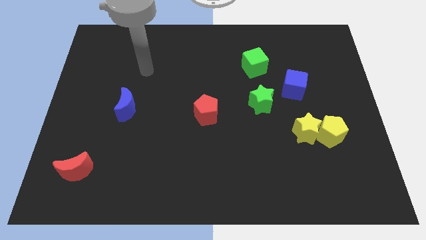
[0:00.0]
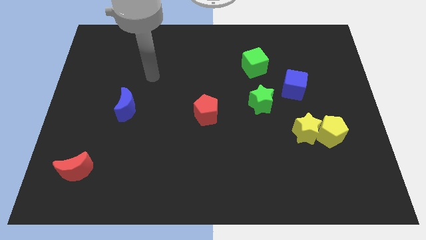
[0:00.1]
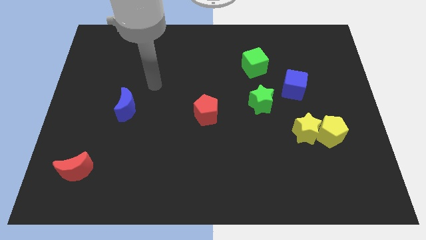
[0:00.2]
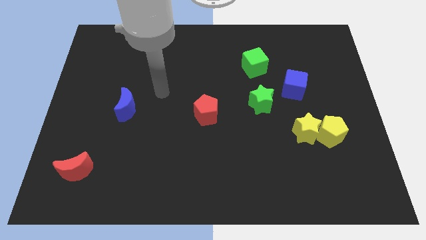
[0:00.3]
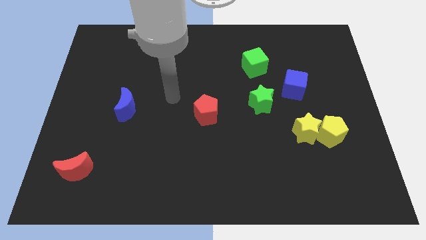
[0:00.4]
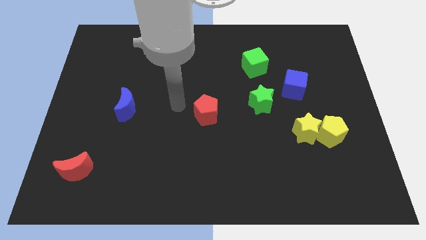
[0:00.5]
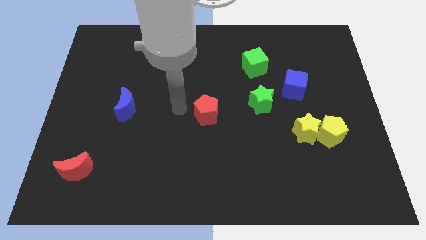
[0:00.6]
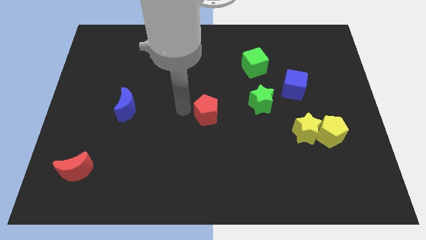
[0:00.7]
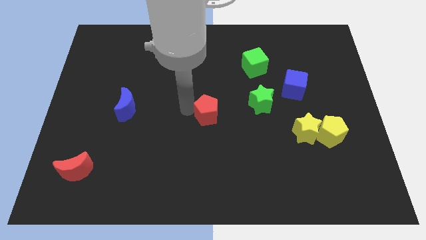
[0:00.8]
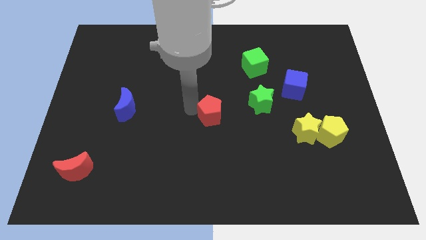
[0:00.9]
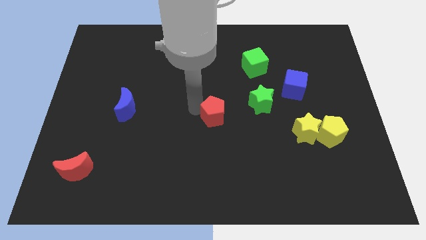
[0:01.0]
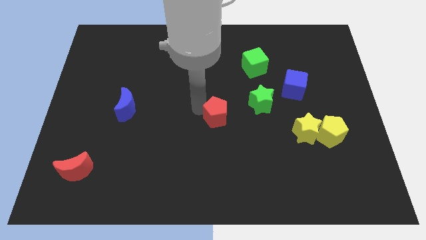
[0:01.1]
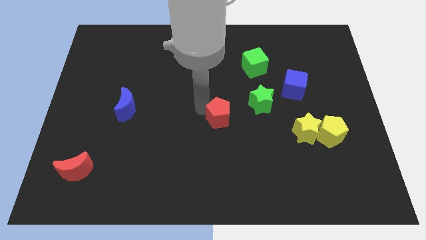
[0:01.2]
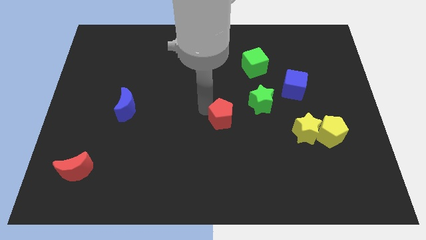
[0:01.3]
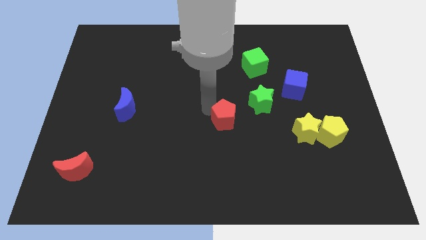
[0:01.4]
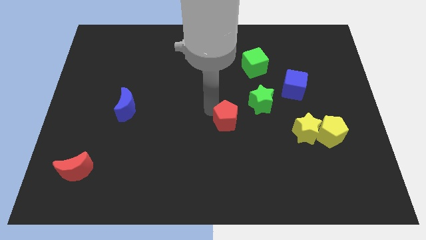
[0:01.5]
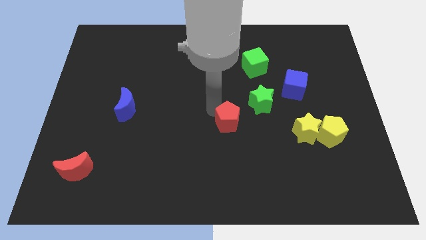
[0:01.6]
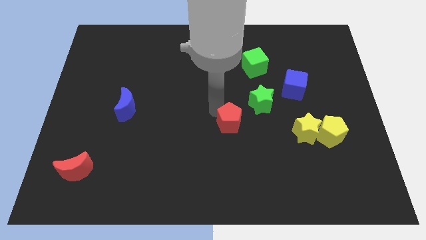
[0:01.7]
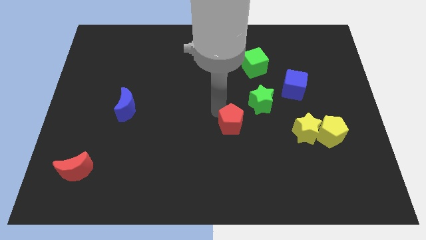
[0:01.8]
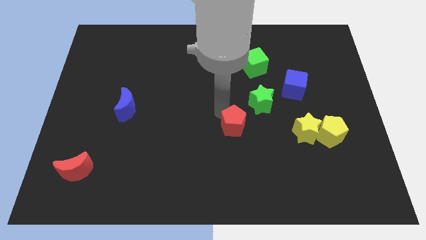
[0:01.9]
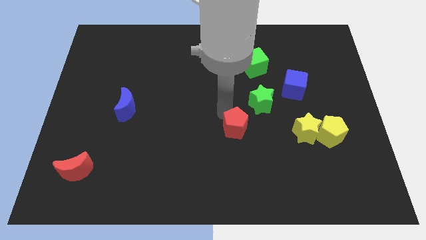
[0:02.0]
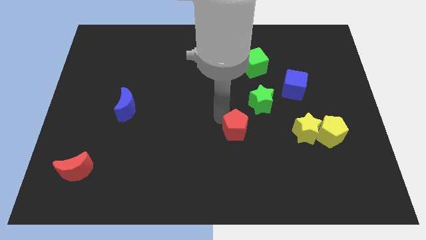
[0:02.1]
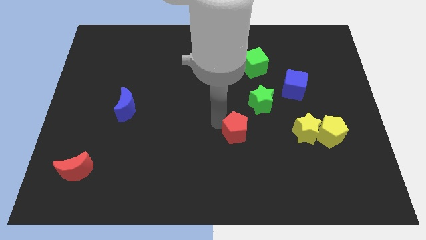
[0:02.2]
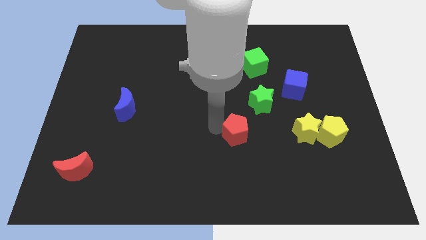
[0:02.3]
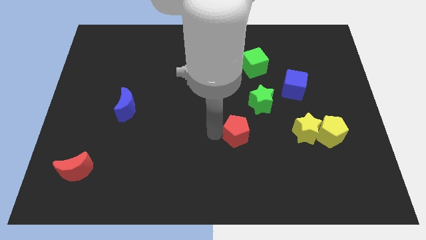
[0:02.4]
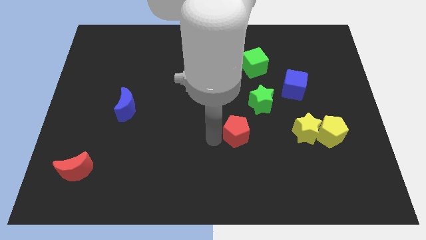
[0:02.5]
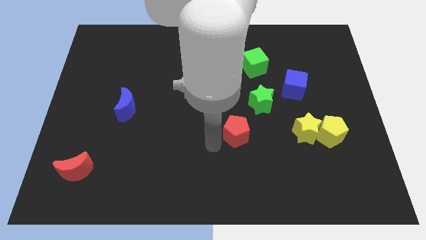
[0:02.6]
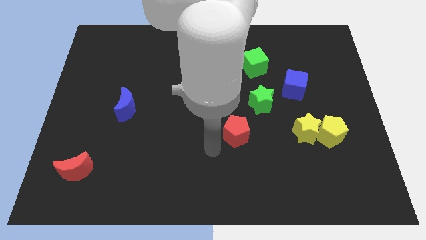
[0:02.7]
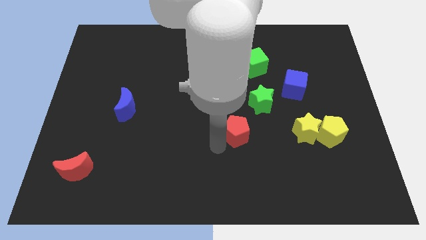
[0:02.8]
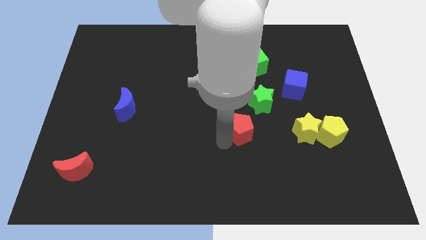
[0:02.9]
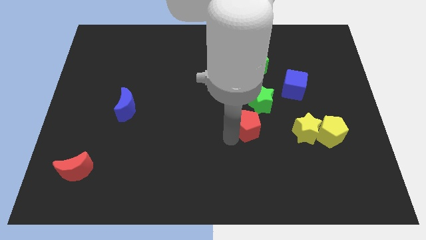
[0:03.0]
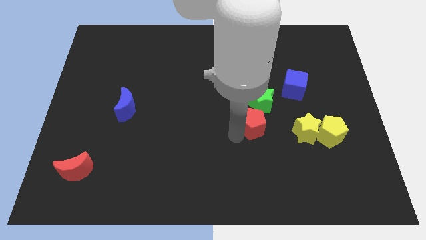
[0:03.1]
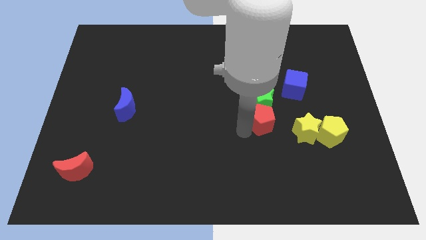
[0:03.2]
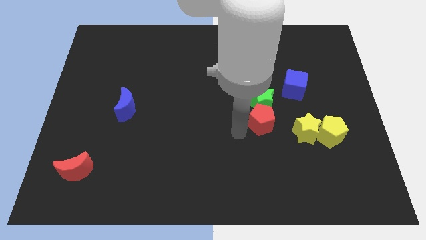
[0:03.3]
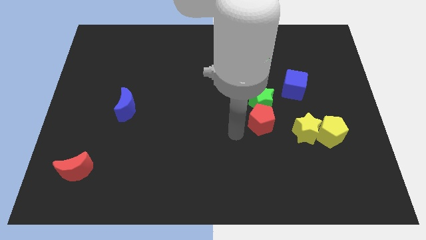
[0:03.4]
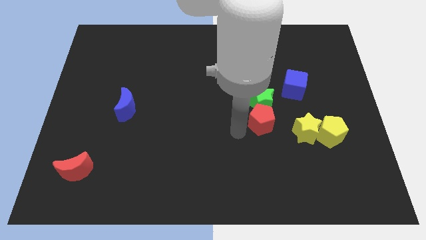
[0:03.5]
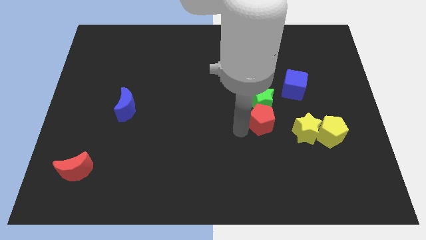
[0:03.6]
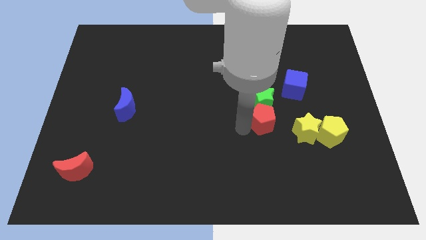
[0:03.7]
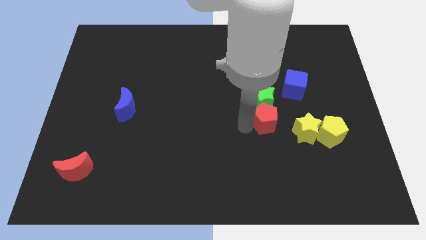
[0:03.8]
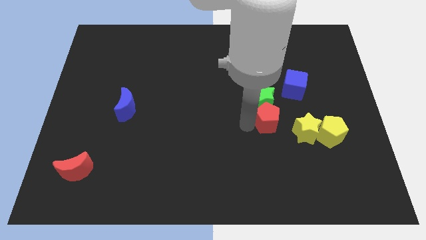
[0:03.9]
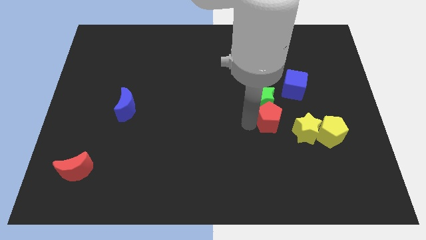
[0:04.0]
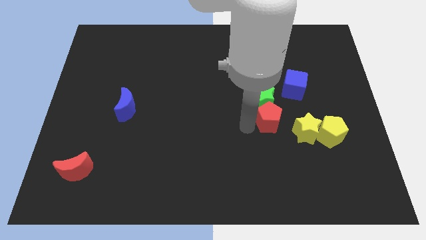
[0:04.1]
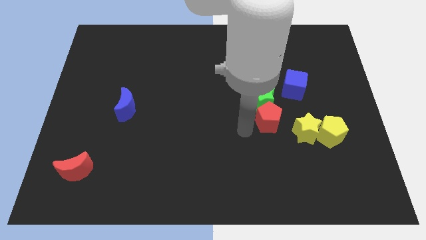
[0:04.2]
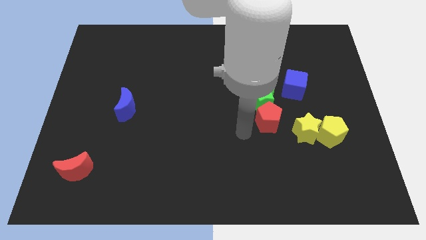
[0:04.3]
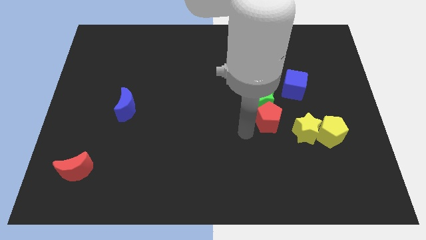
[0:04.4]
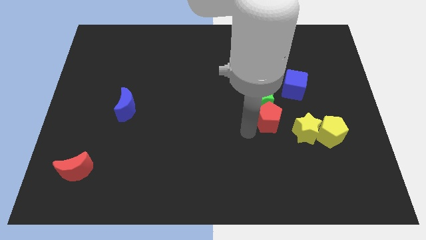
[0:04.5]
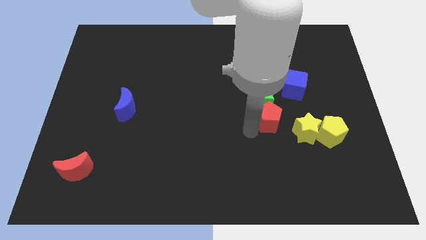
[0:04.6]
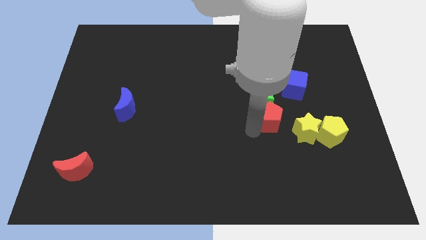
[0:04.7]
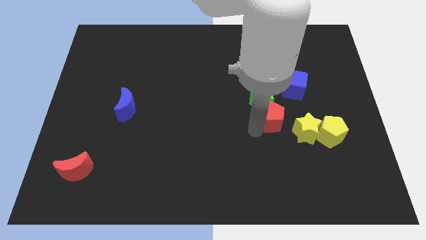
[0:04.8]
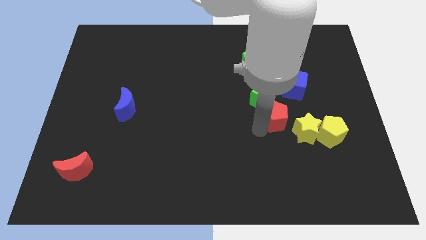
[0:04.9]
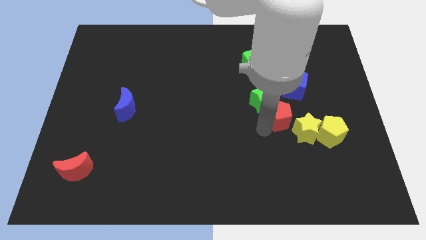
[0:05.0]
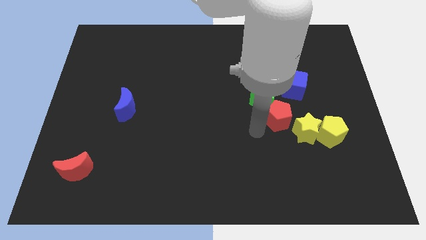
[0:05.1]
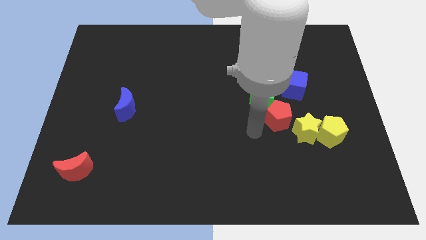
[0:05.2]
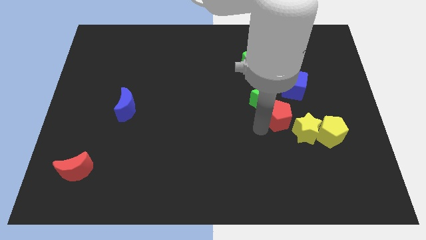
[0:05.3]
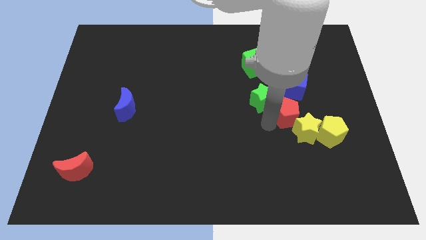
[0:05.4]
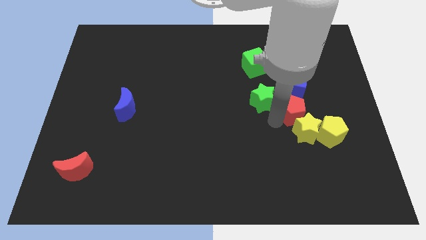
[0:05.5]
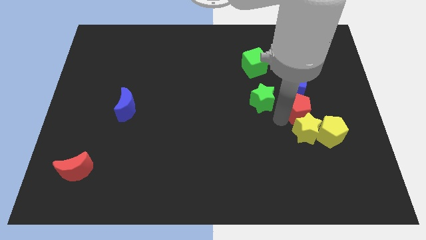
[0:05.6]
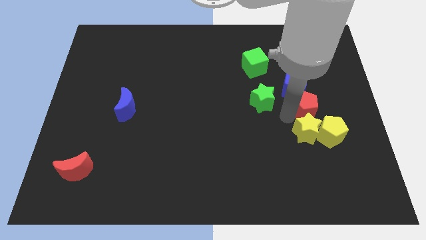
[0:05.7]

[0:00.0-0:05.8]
slide the red pentagon to the top side of the yellow pentagon

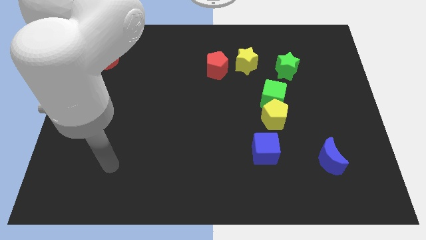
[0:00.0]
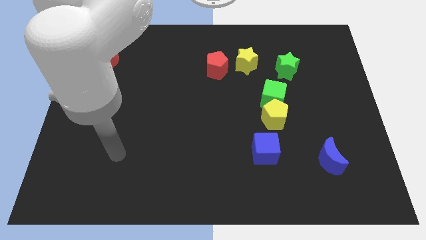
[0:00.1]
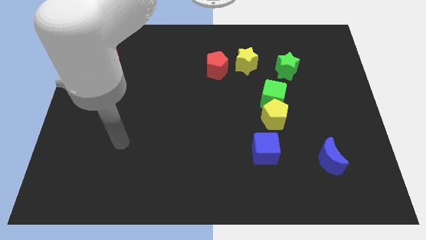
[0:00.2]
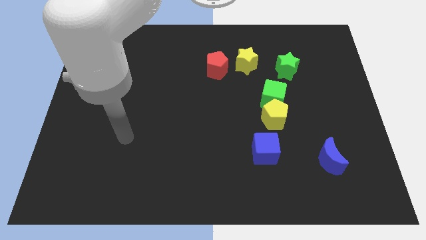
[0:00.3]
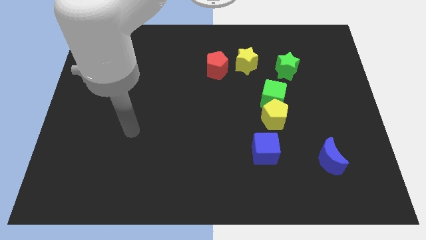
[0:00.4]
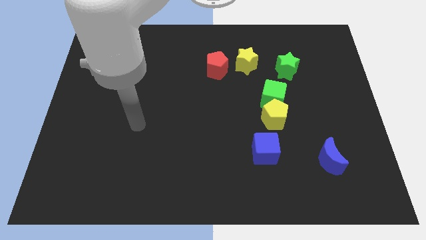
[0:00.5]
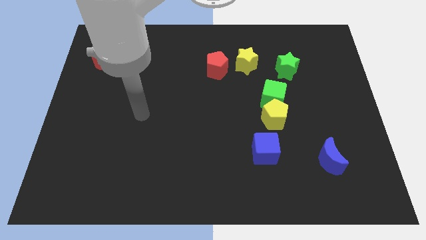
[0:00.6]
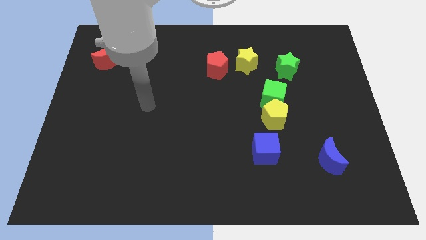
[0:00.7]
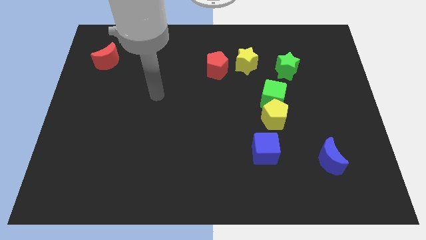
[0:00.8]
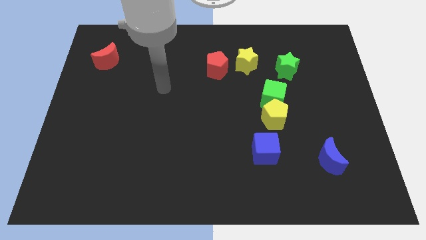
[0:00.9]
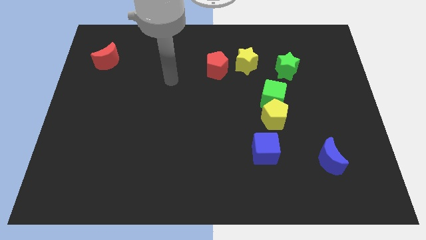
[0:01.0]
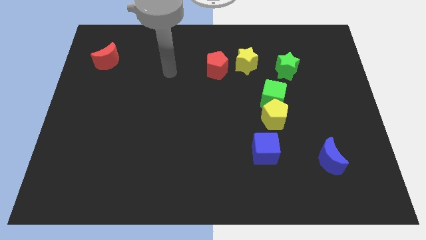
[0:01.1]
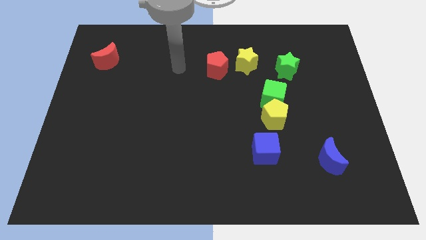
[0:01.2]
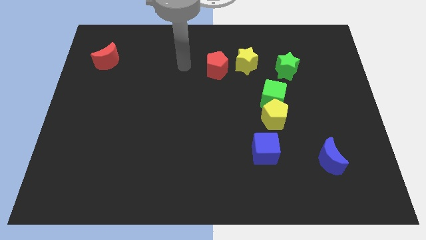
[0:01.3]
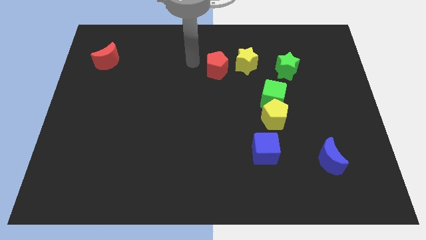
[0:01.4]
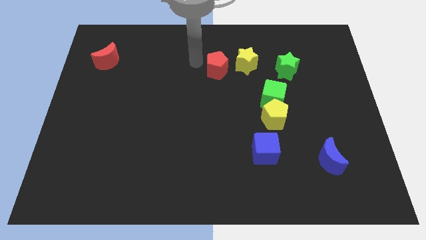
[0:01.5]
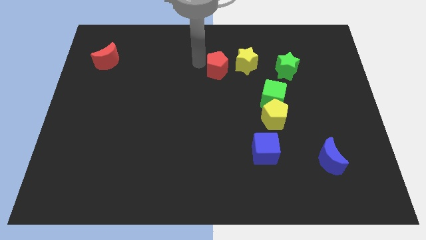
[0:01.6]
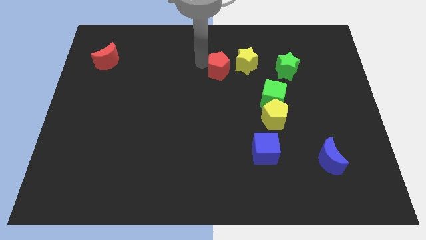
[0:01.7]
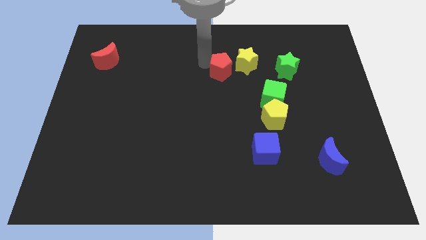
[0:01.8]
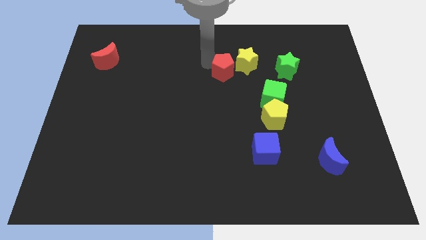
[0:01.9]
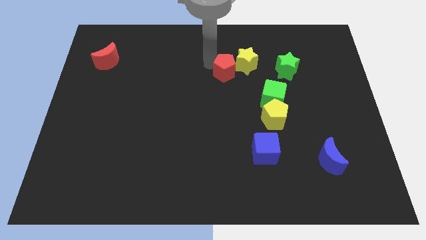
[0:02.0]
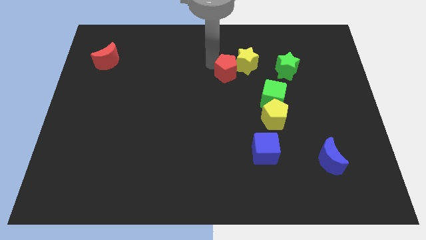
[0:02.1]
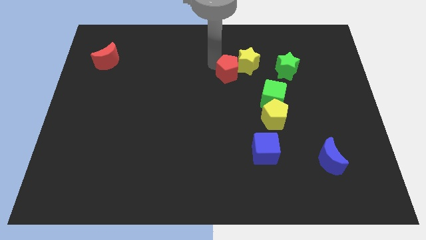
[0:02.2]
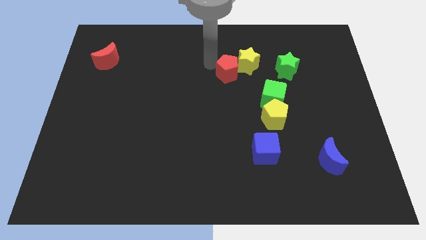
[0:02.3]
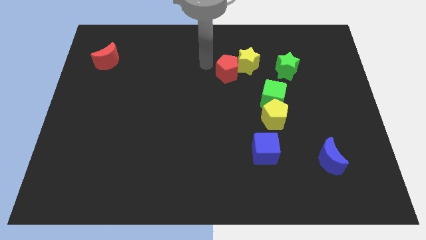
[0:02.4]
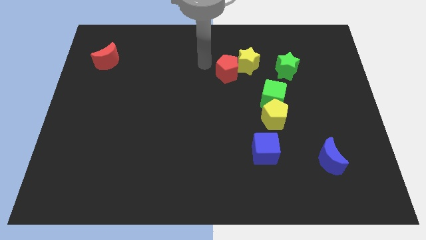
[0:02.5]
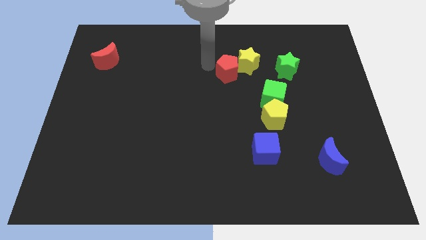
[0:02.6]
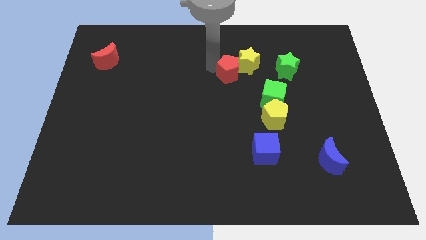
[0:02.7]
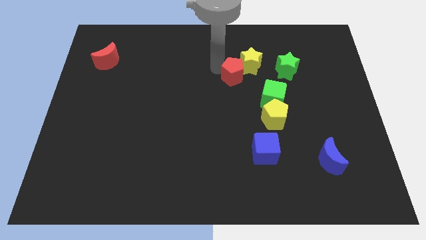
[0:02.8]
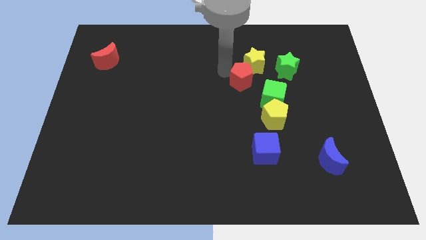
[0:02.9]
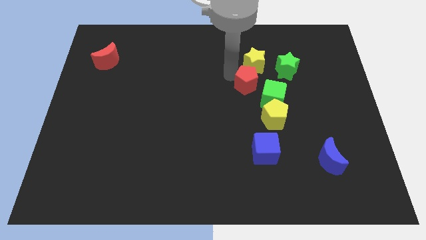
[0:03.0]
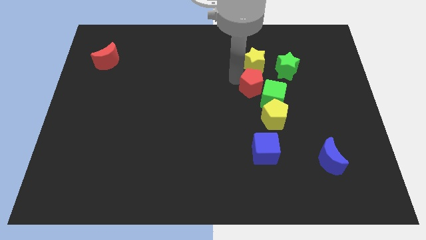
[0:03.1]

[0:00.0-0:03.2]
put the red pentagon to the bottom left of the green star
